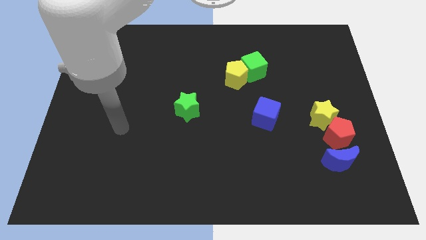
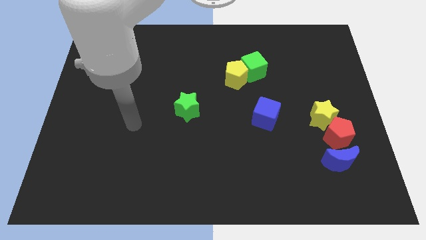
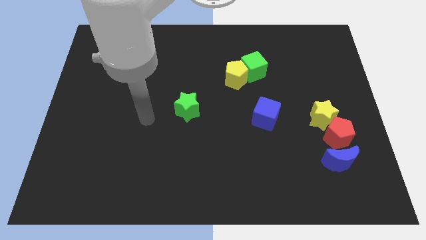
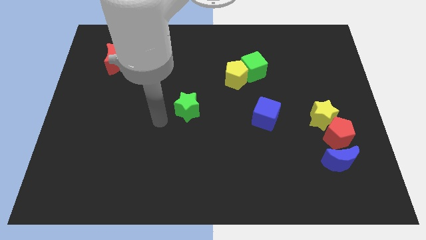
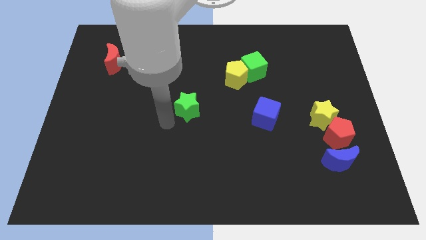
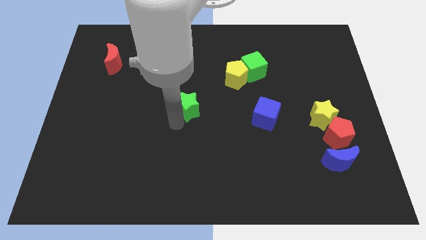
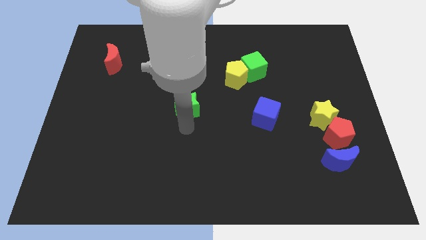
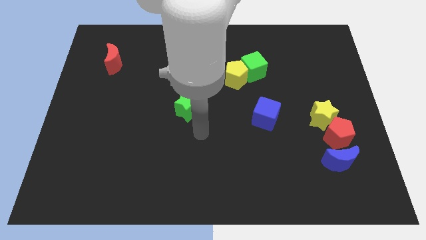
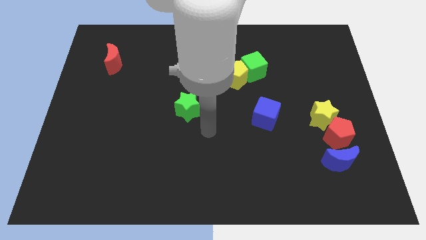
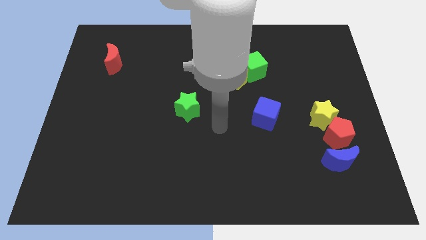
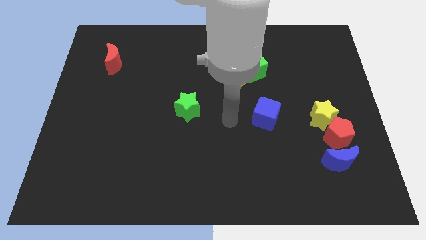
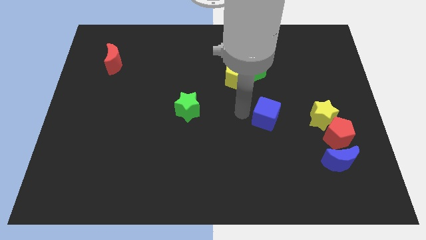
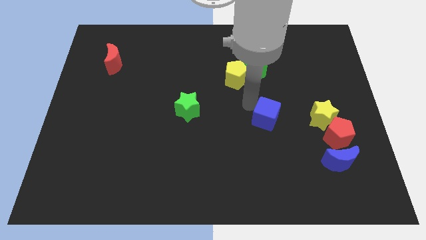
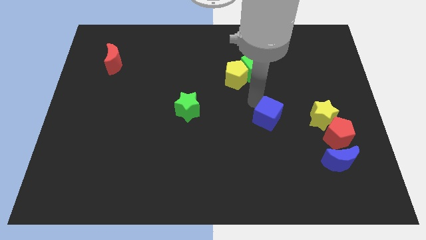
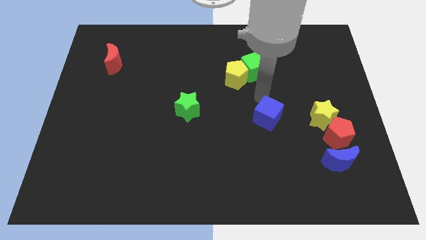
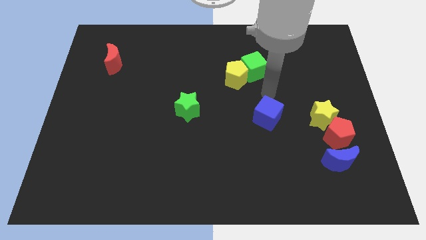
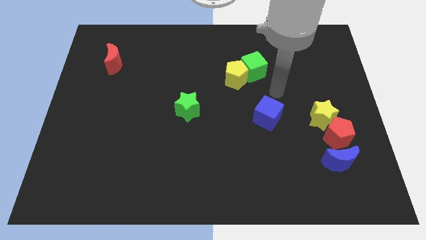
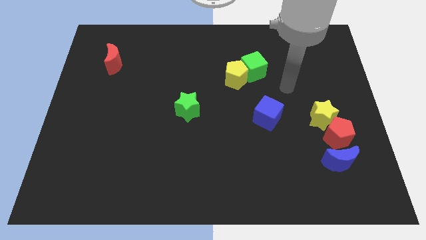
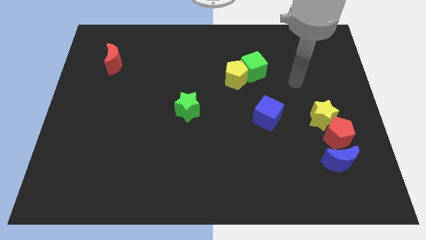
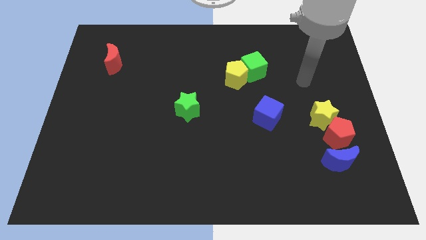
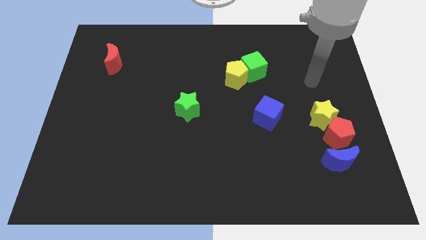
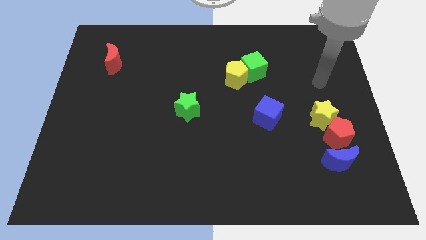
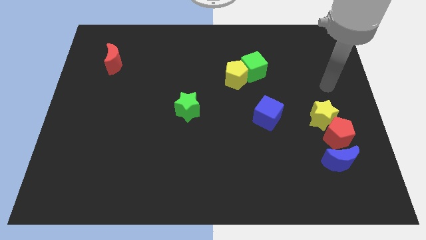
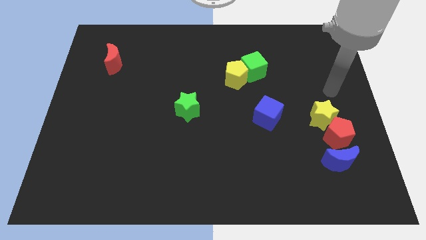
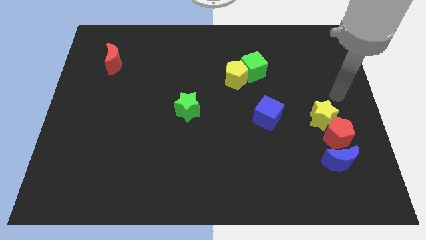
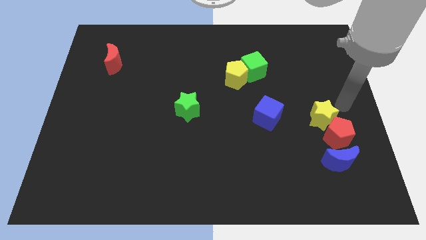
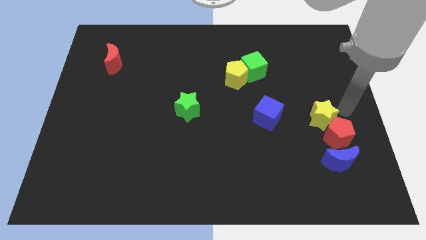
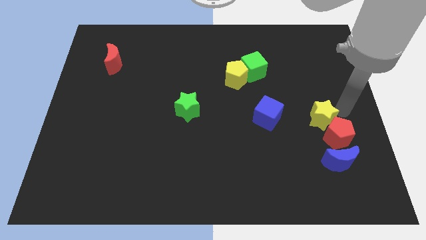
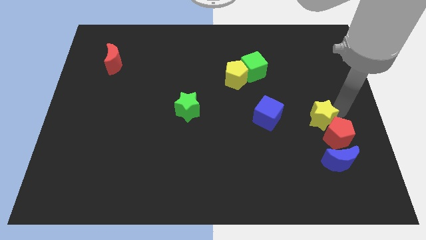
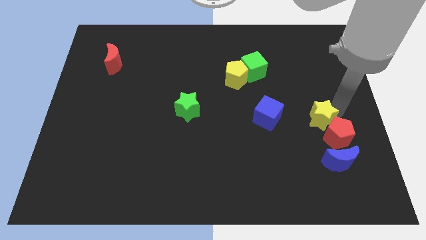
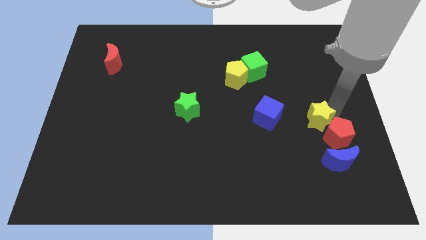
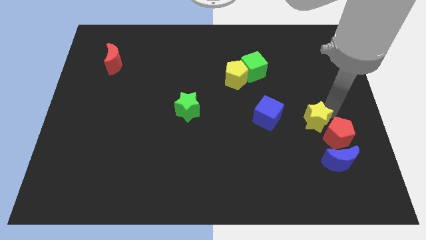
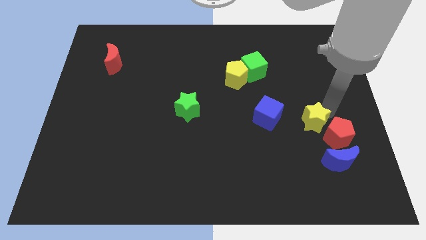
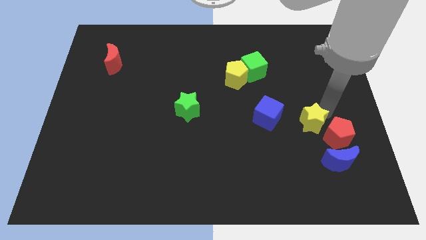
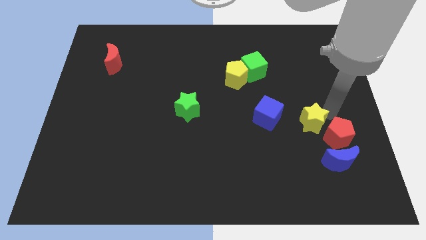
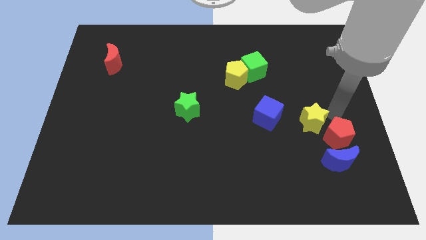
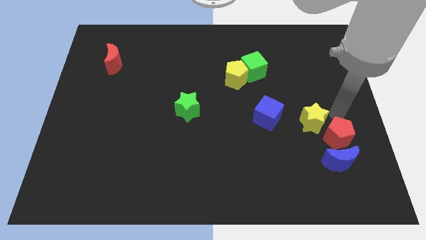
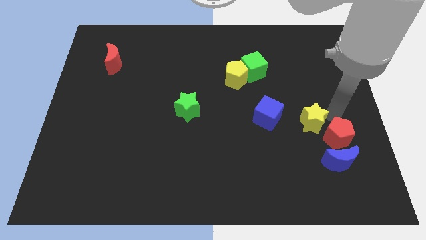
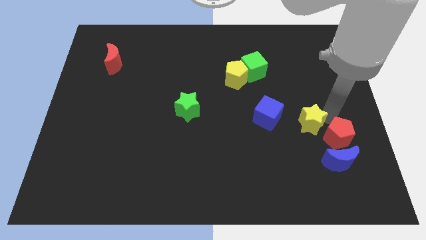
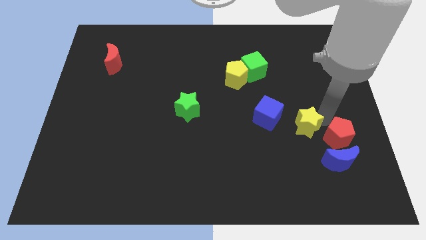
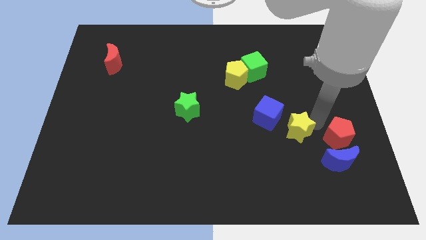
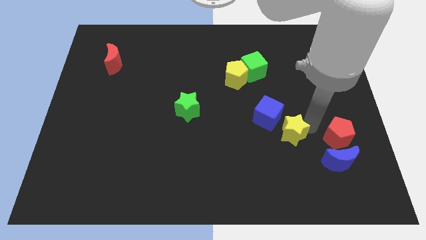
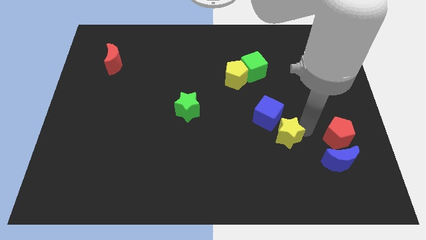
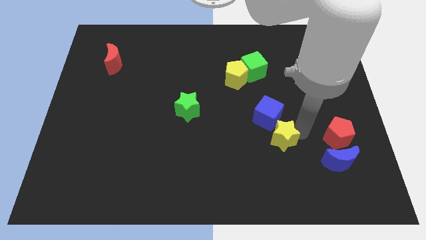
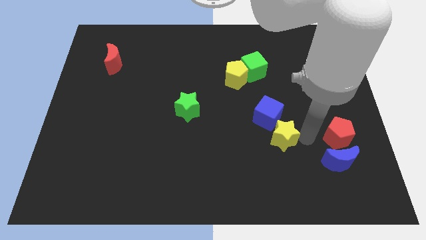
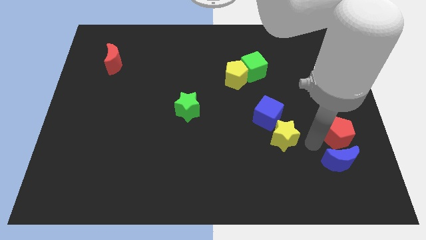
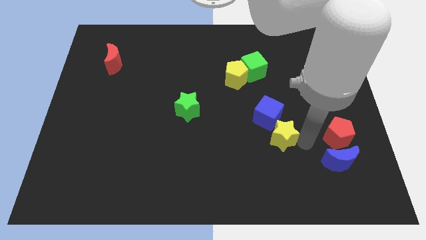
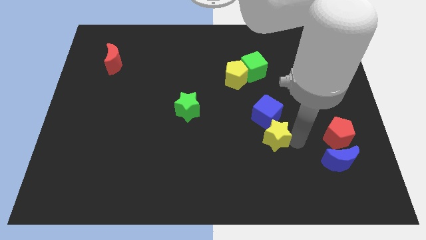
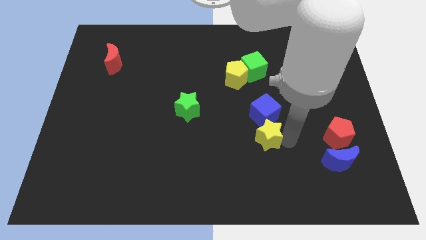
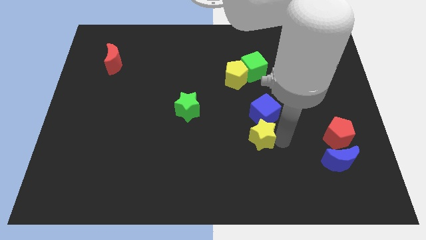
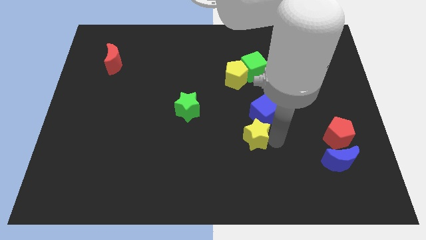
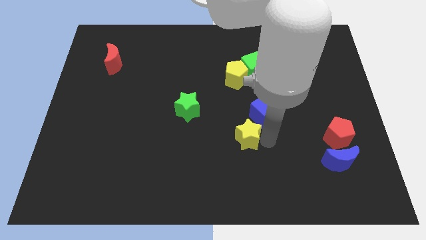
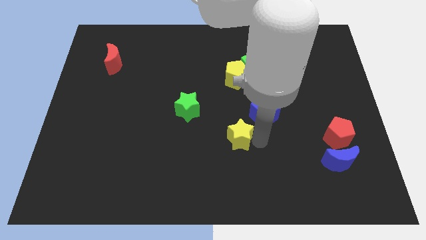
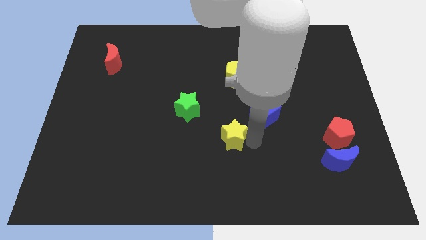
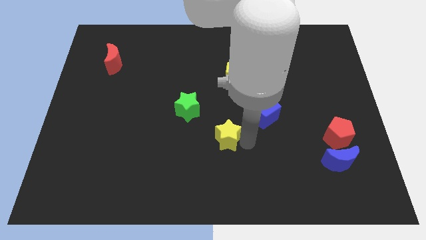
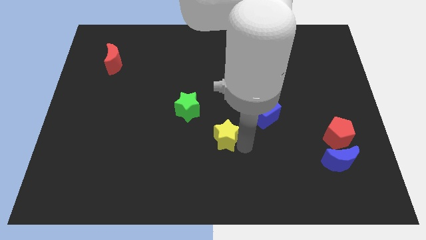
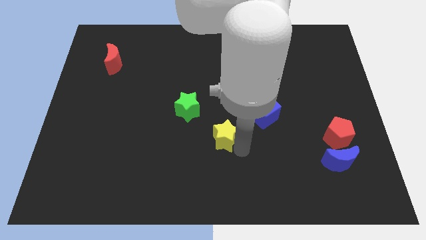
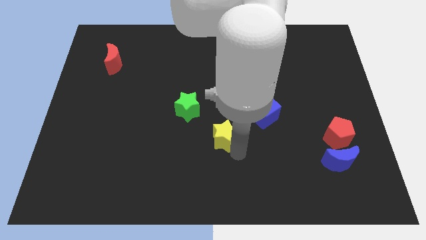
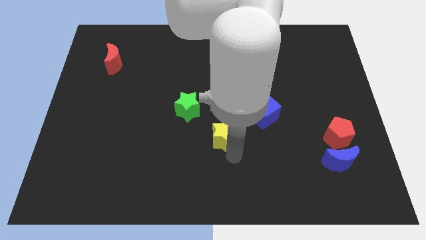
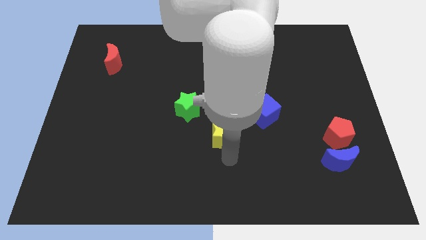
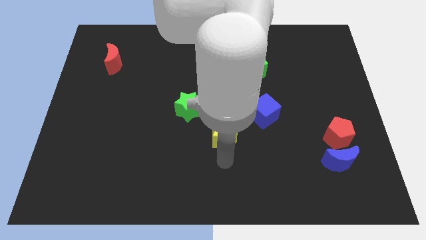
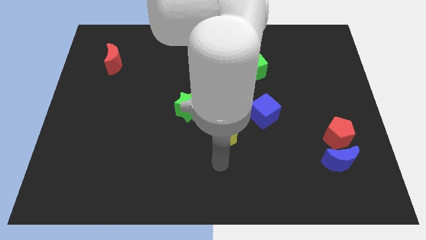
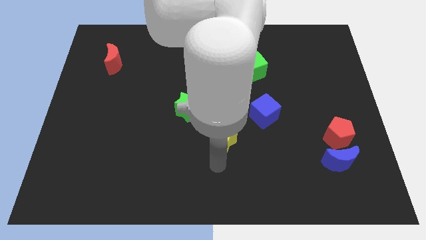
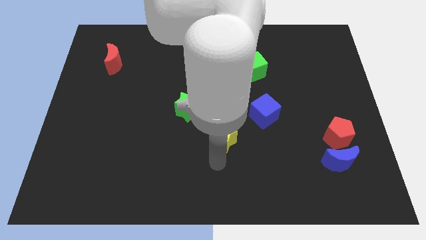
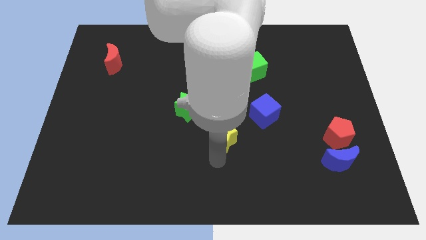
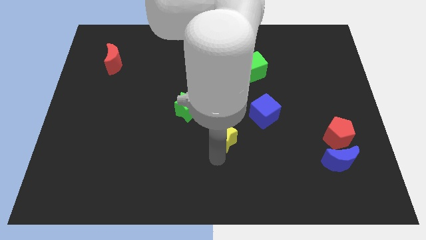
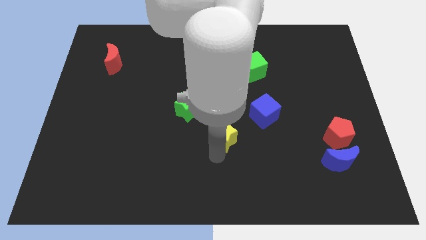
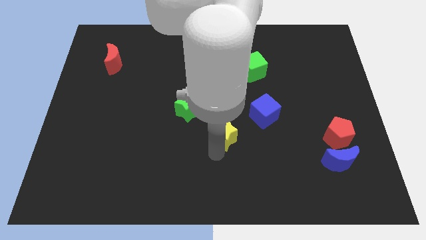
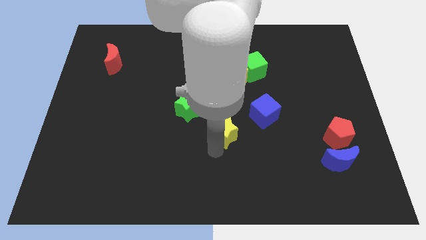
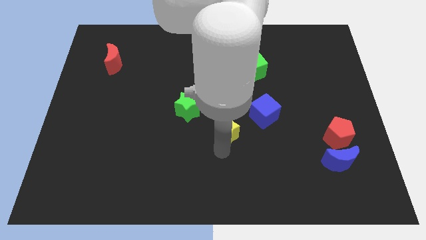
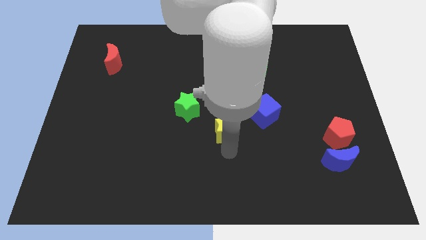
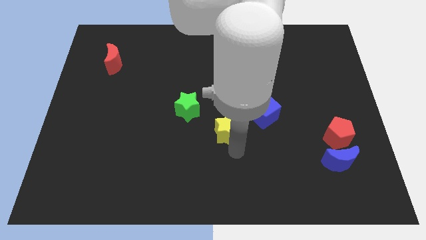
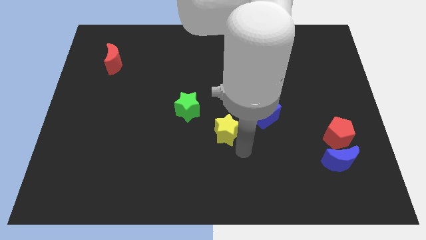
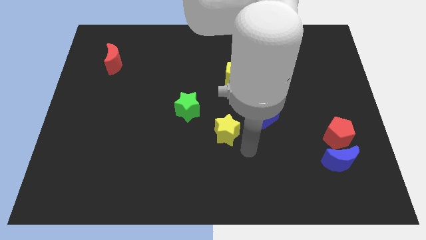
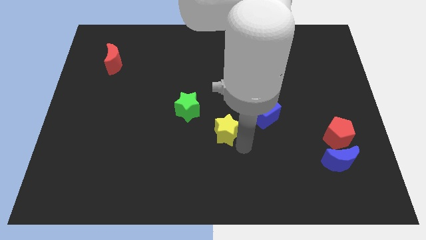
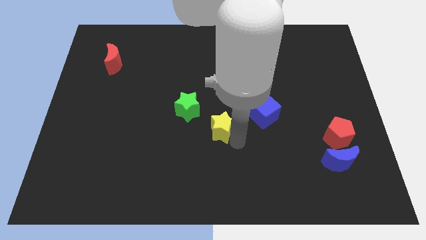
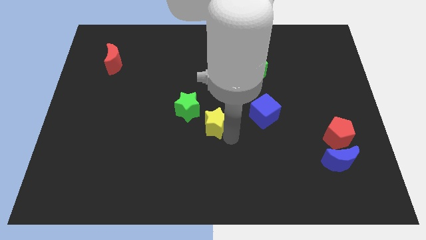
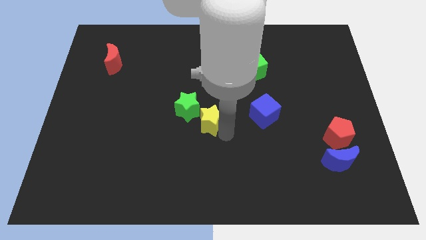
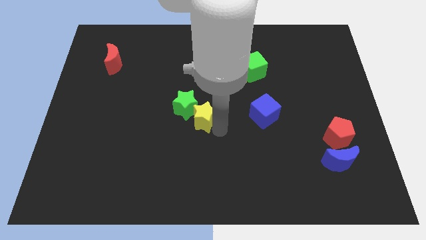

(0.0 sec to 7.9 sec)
move the yellow star towards the green star
